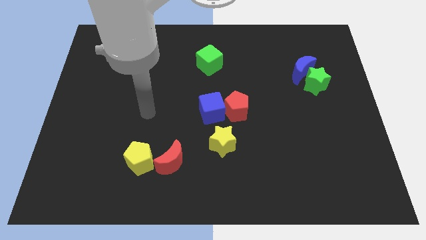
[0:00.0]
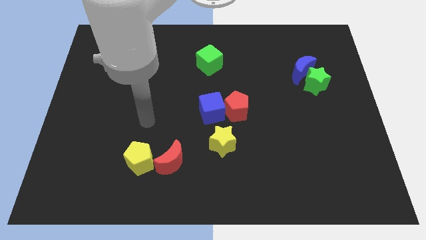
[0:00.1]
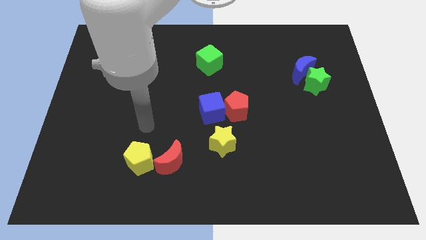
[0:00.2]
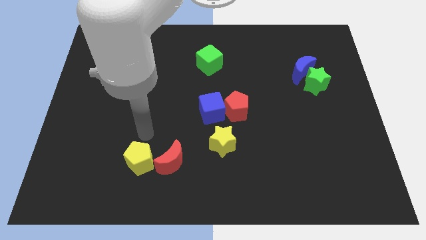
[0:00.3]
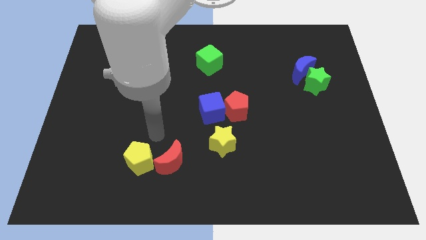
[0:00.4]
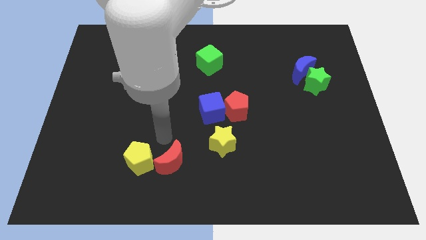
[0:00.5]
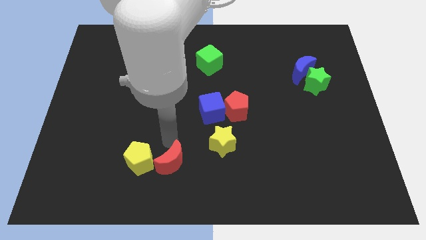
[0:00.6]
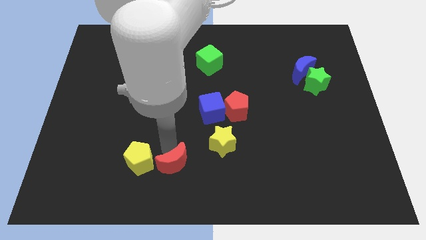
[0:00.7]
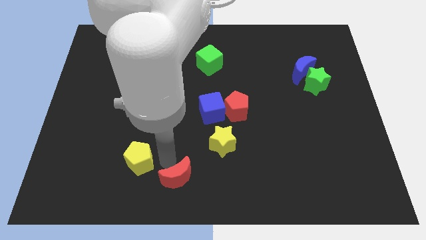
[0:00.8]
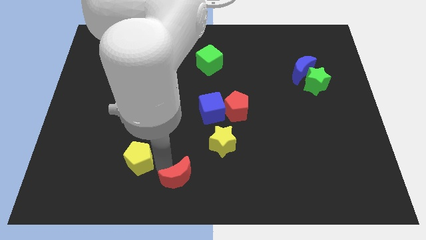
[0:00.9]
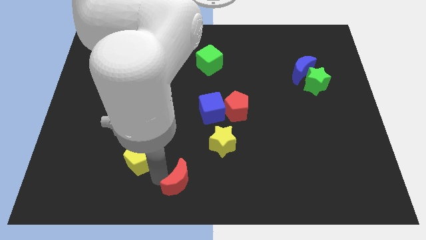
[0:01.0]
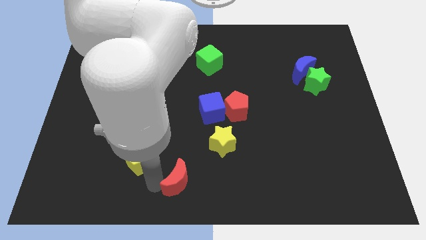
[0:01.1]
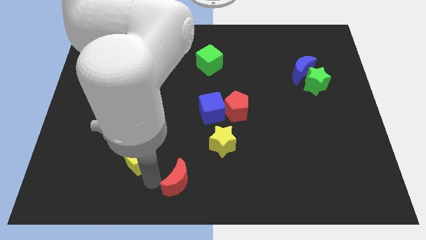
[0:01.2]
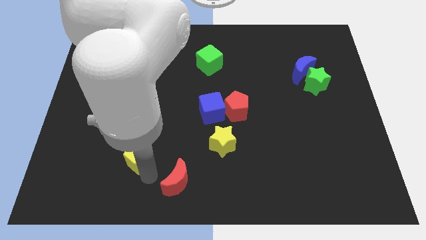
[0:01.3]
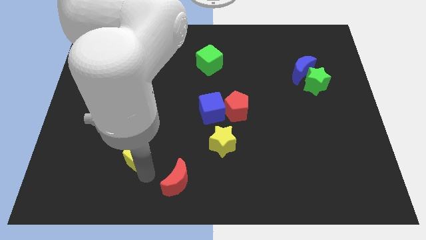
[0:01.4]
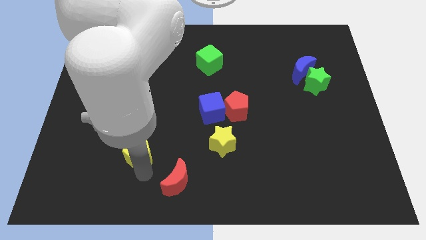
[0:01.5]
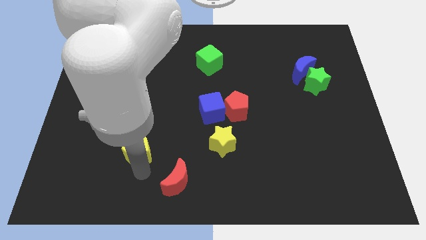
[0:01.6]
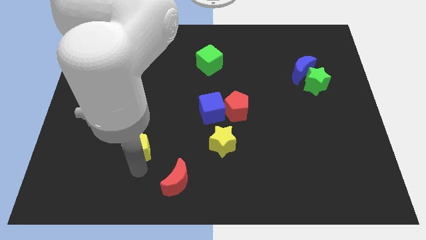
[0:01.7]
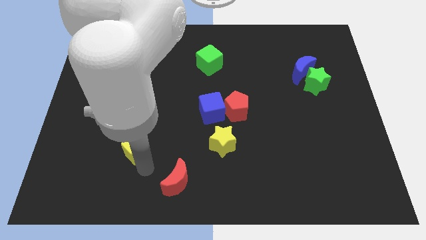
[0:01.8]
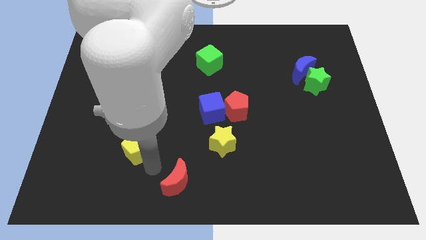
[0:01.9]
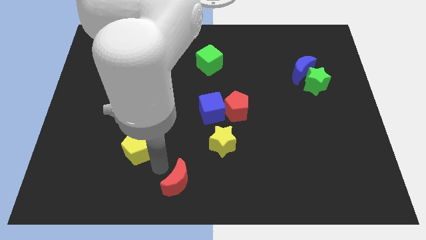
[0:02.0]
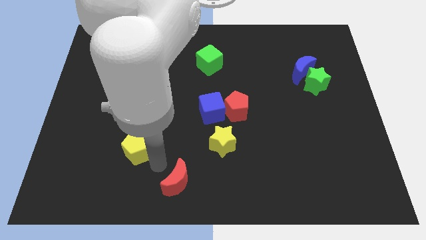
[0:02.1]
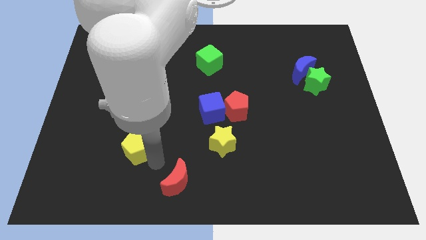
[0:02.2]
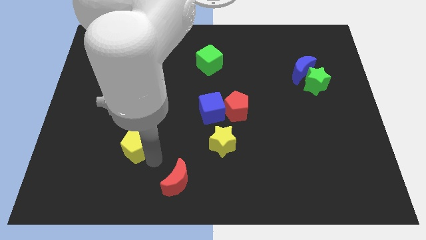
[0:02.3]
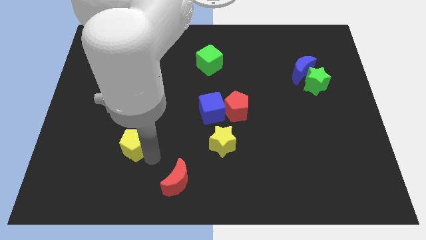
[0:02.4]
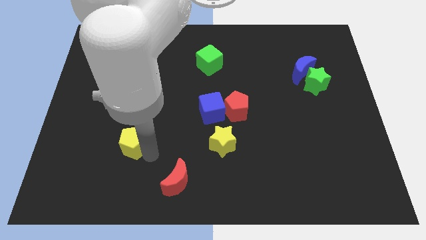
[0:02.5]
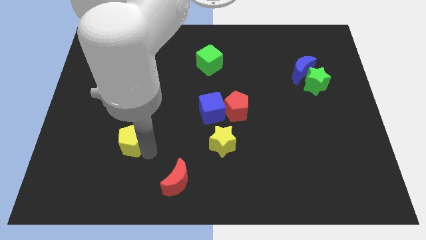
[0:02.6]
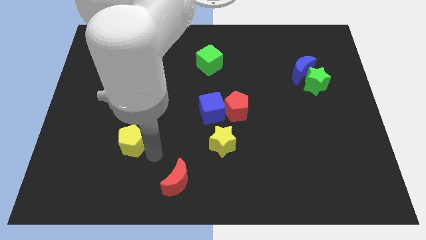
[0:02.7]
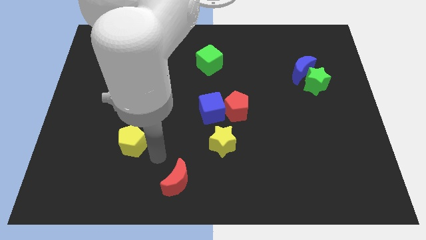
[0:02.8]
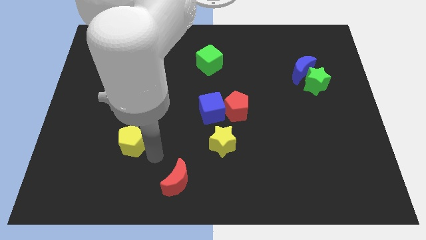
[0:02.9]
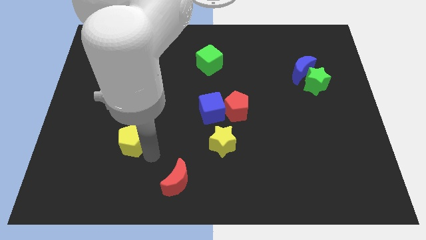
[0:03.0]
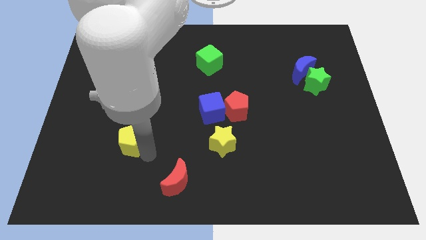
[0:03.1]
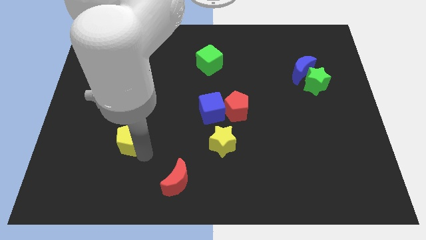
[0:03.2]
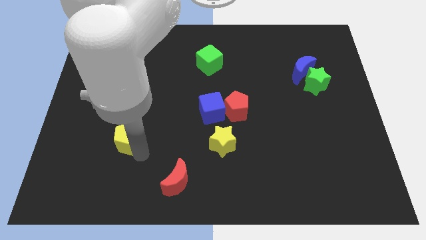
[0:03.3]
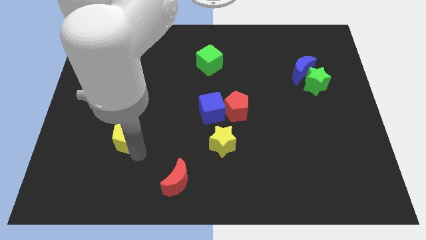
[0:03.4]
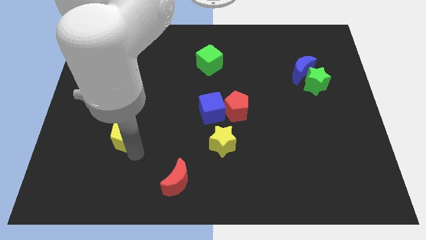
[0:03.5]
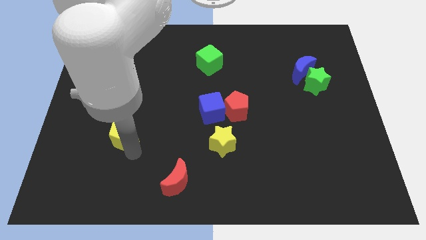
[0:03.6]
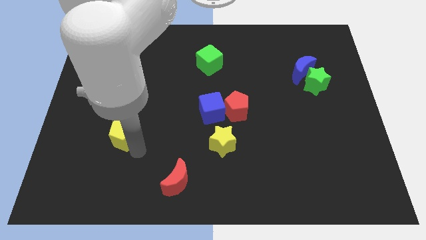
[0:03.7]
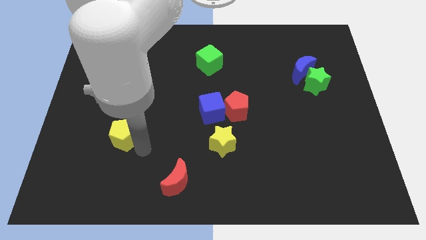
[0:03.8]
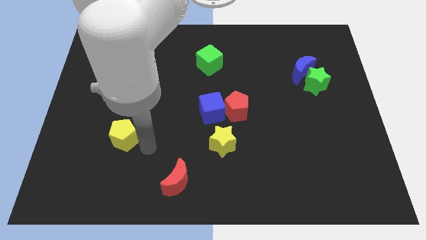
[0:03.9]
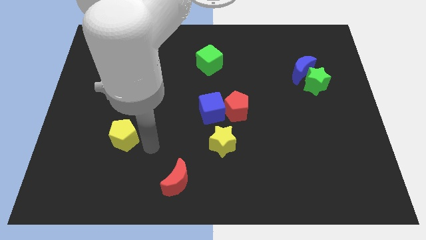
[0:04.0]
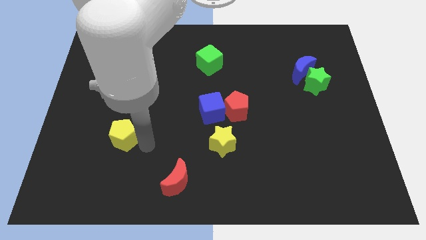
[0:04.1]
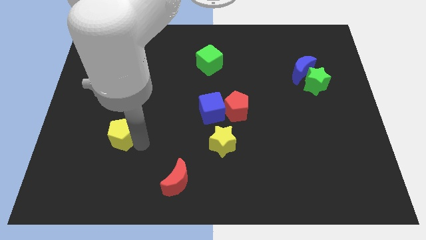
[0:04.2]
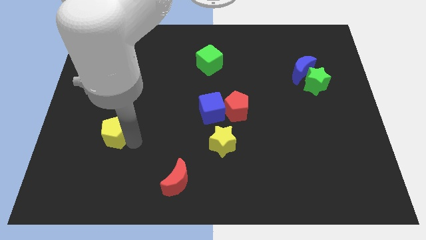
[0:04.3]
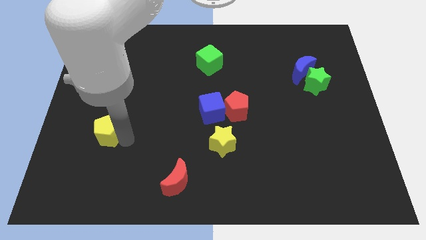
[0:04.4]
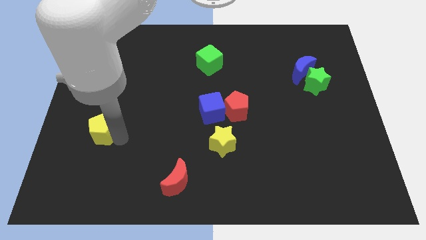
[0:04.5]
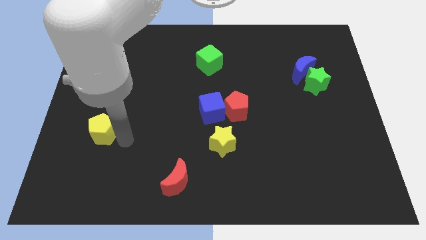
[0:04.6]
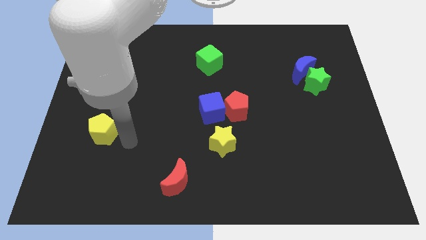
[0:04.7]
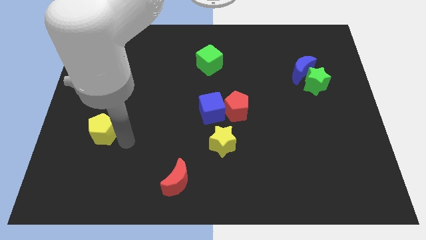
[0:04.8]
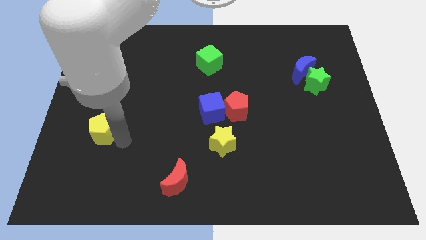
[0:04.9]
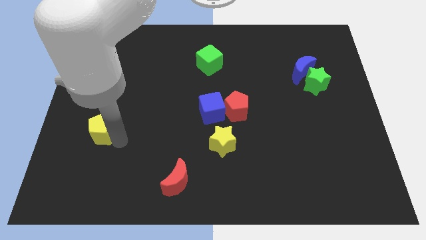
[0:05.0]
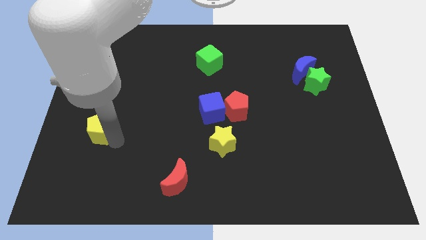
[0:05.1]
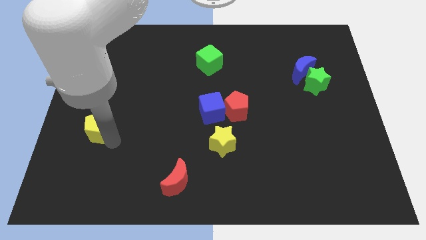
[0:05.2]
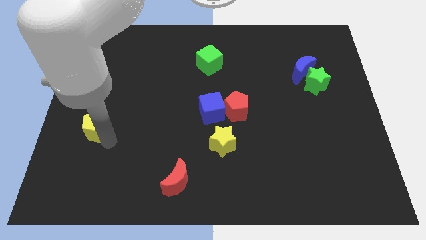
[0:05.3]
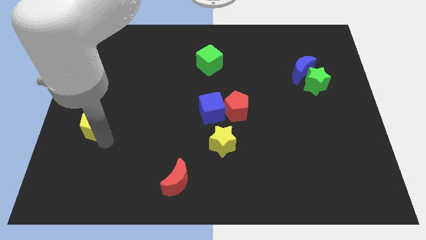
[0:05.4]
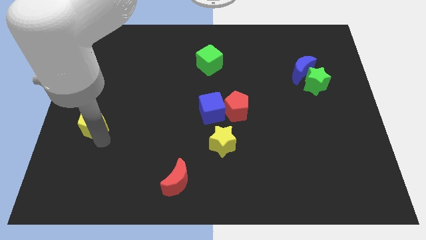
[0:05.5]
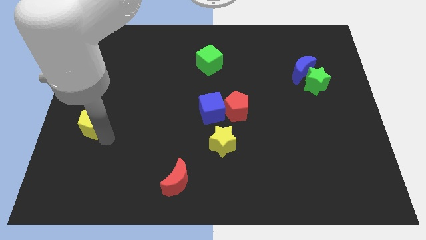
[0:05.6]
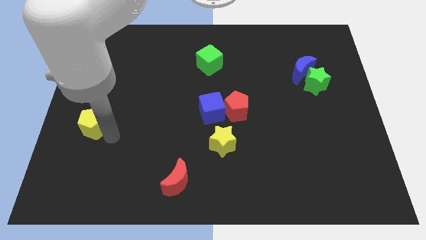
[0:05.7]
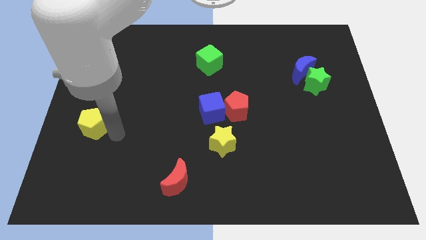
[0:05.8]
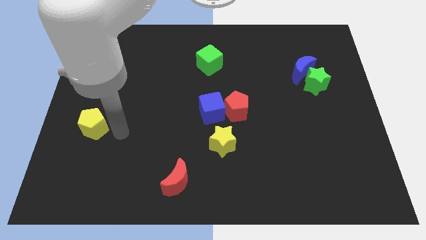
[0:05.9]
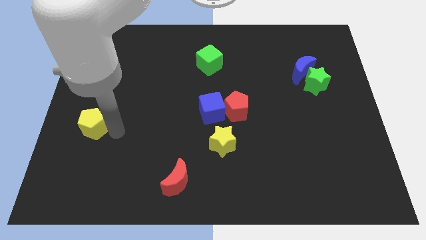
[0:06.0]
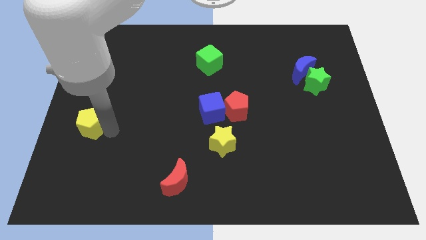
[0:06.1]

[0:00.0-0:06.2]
move the yellow pentagon to the left side

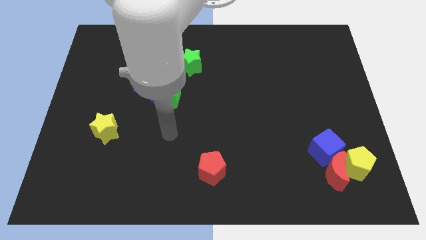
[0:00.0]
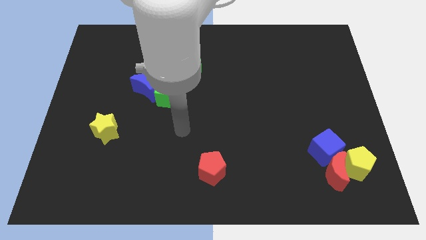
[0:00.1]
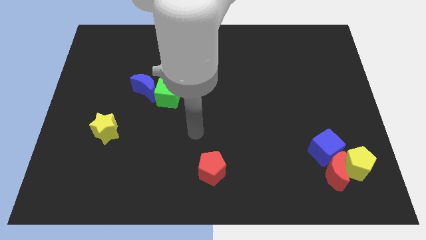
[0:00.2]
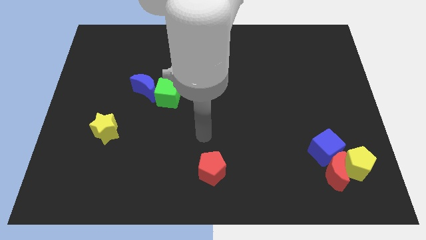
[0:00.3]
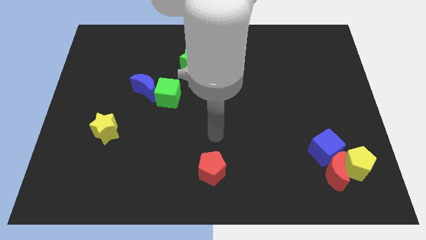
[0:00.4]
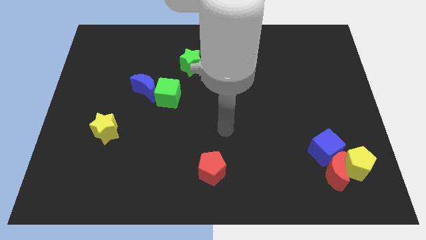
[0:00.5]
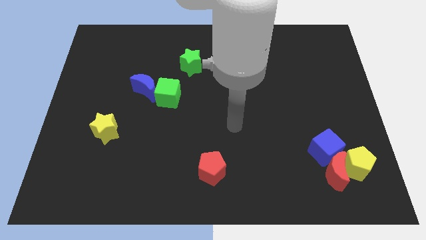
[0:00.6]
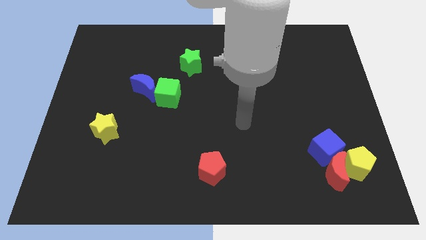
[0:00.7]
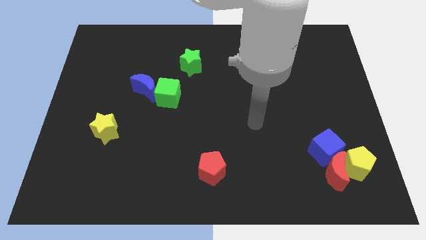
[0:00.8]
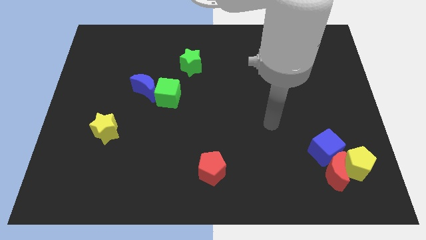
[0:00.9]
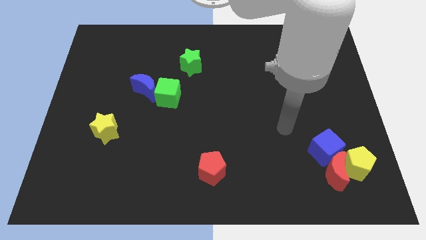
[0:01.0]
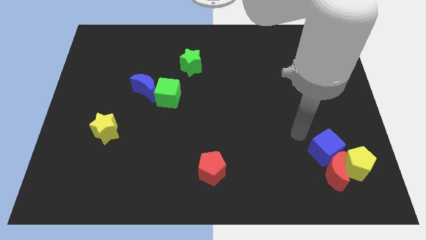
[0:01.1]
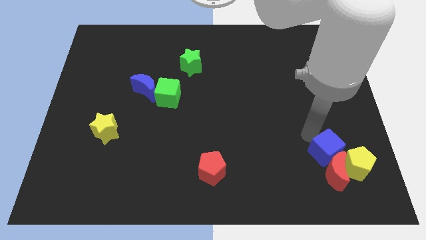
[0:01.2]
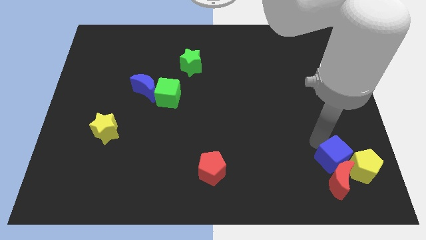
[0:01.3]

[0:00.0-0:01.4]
move the yellow pentagon to the bottom right corner
